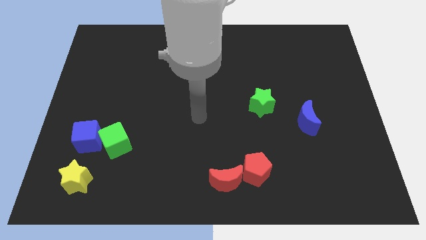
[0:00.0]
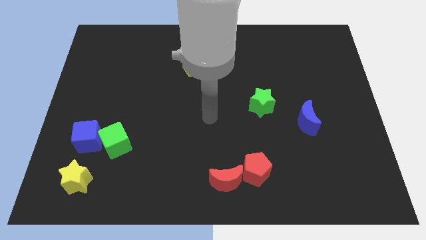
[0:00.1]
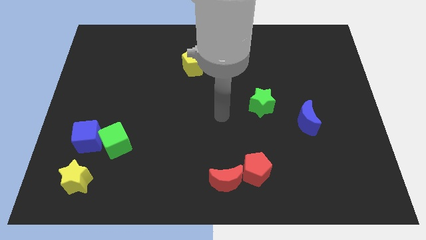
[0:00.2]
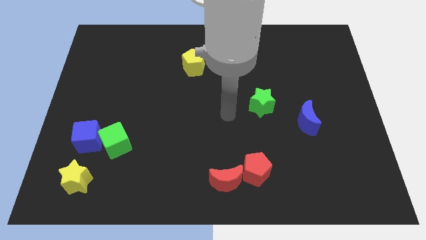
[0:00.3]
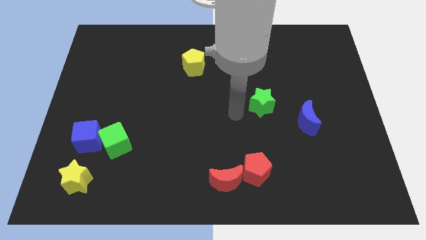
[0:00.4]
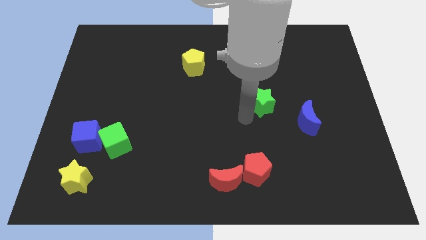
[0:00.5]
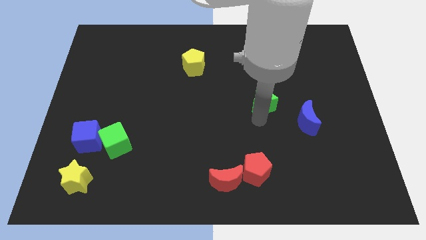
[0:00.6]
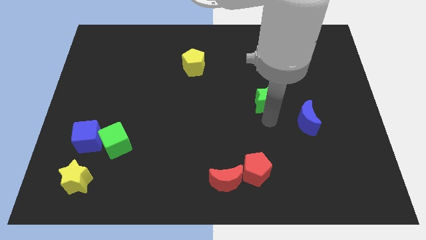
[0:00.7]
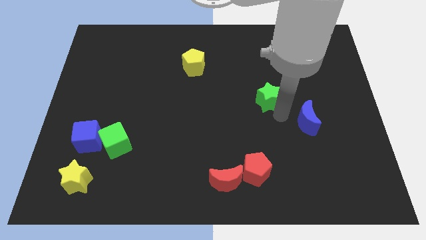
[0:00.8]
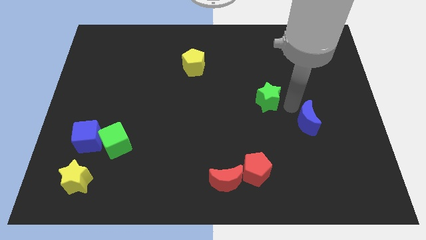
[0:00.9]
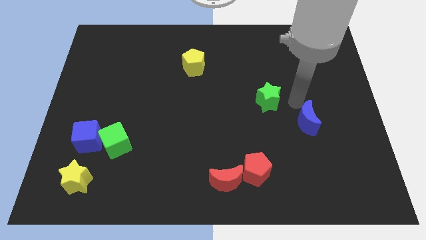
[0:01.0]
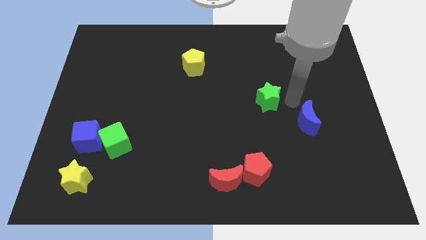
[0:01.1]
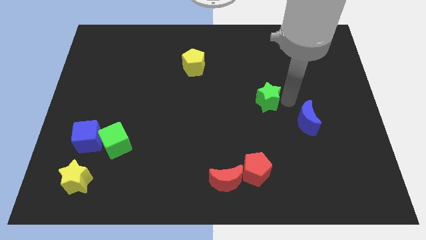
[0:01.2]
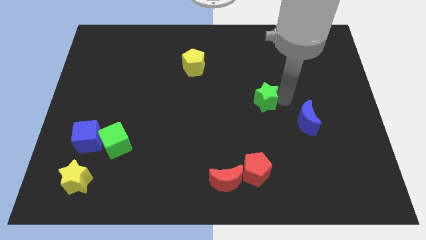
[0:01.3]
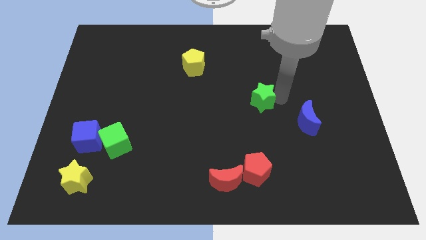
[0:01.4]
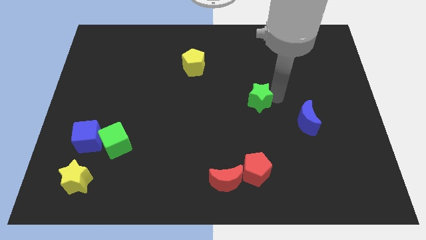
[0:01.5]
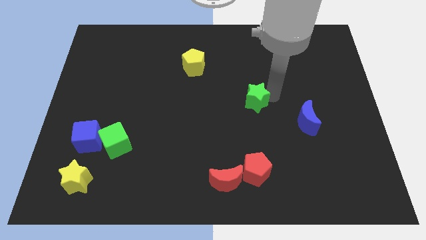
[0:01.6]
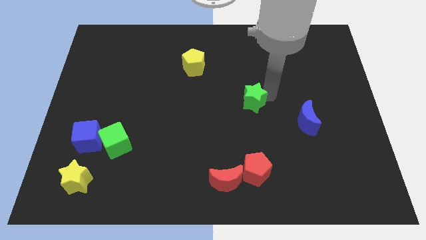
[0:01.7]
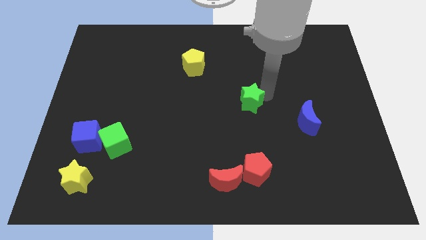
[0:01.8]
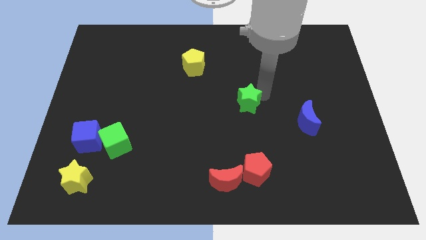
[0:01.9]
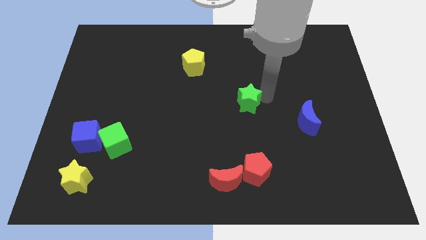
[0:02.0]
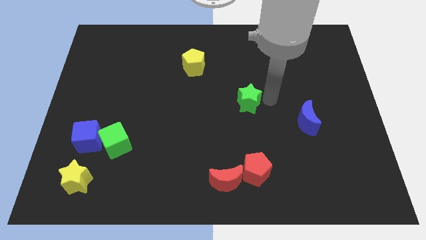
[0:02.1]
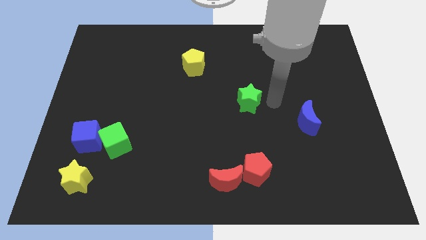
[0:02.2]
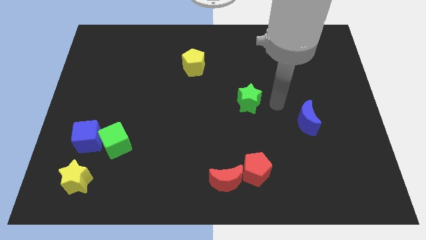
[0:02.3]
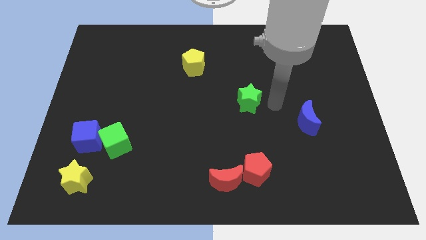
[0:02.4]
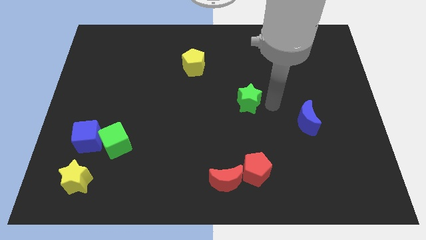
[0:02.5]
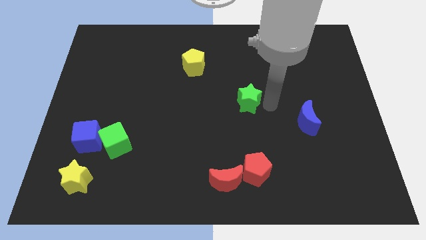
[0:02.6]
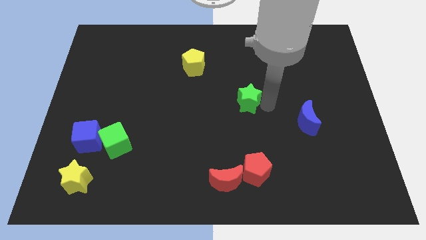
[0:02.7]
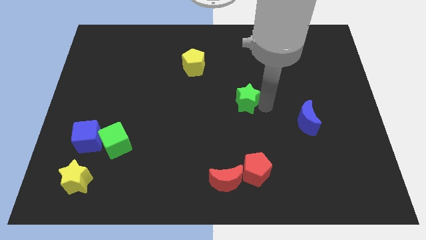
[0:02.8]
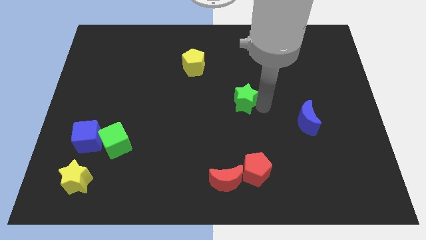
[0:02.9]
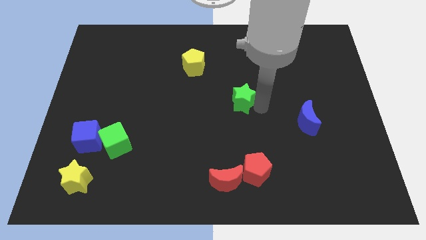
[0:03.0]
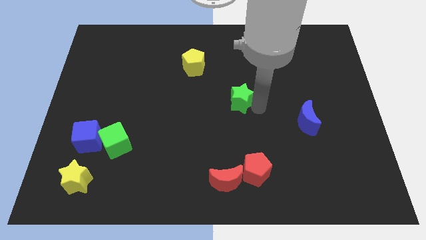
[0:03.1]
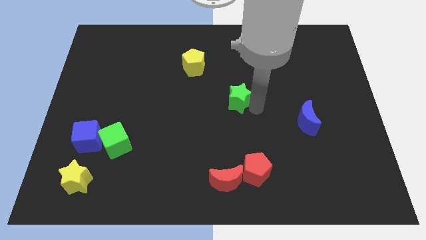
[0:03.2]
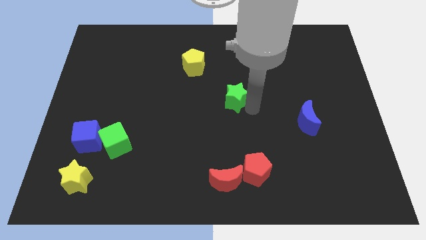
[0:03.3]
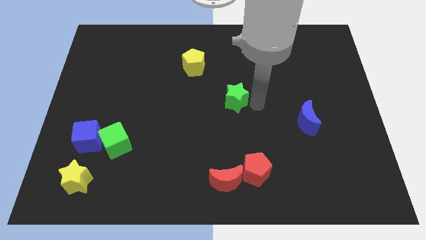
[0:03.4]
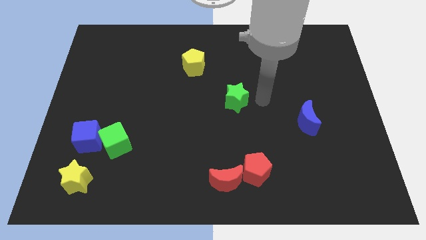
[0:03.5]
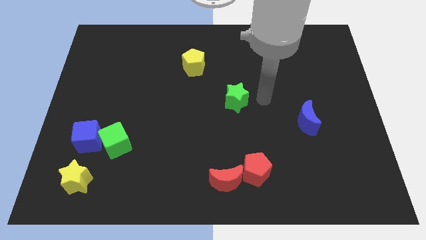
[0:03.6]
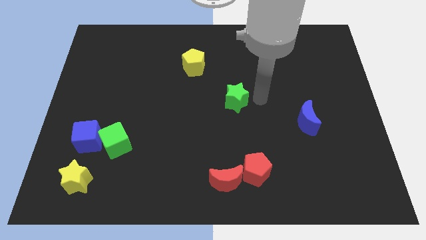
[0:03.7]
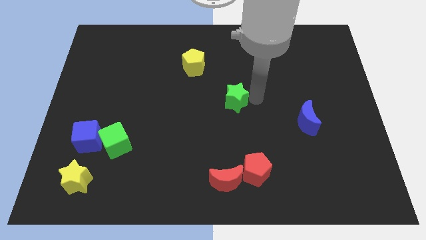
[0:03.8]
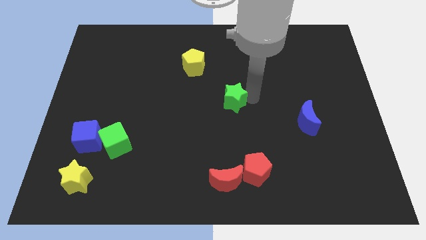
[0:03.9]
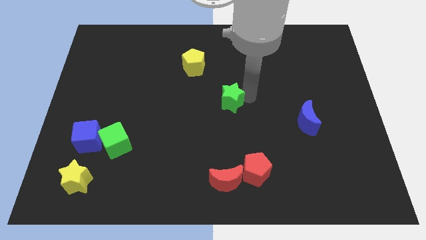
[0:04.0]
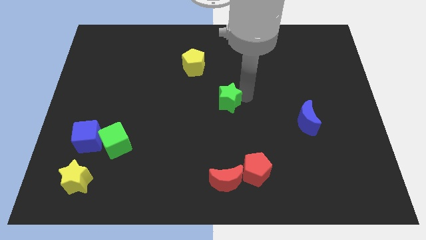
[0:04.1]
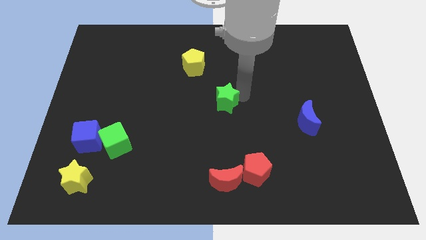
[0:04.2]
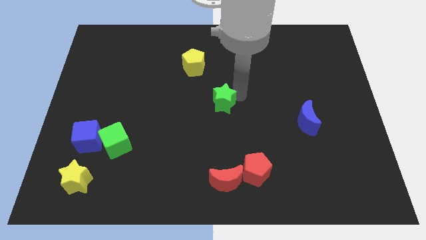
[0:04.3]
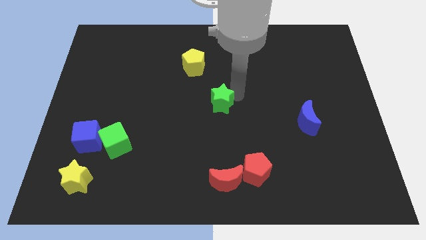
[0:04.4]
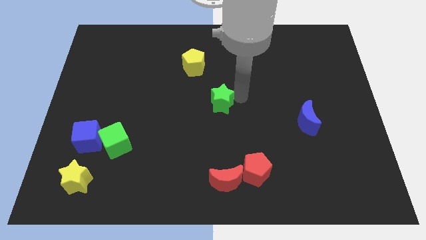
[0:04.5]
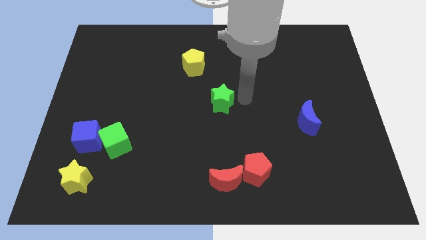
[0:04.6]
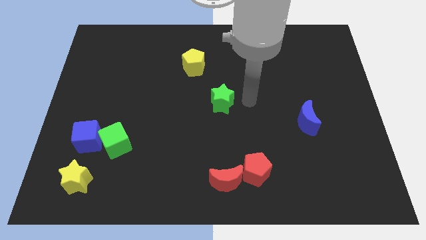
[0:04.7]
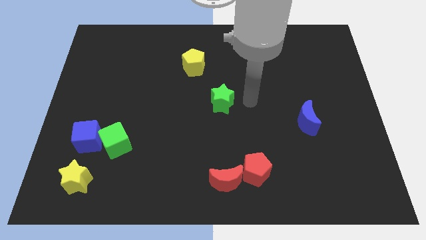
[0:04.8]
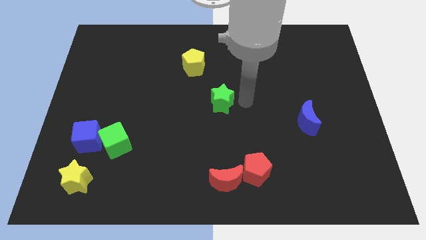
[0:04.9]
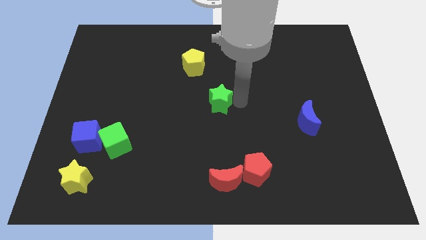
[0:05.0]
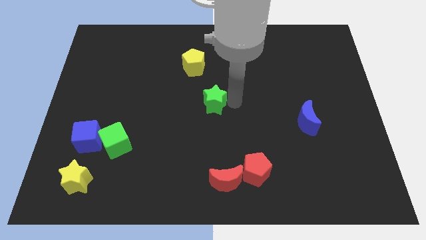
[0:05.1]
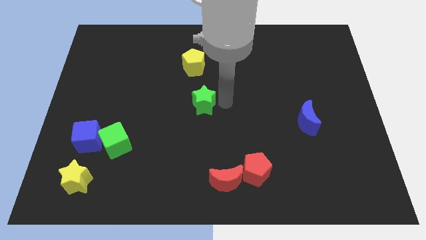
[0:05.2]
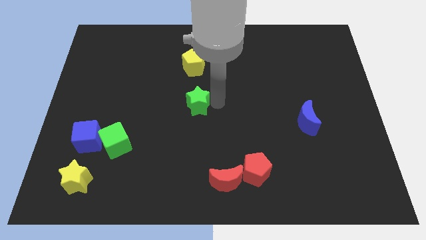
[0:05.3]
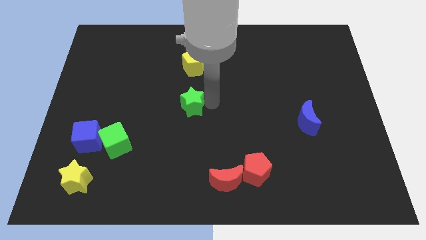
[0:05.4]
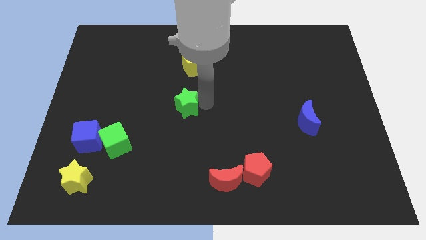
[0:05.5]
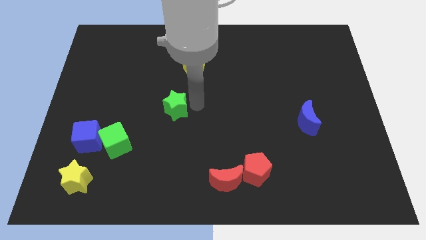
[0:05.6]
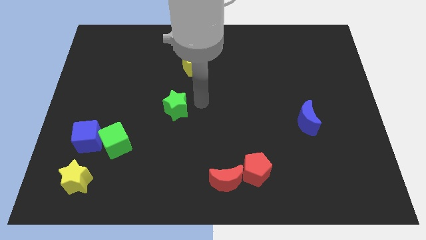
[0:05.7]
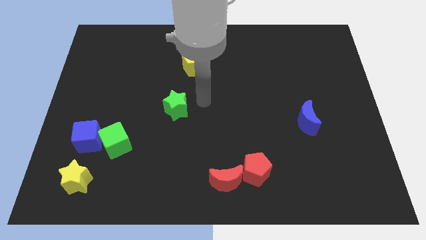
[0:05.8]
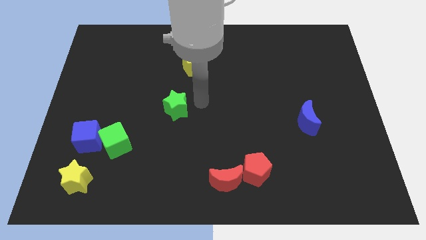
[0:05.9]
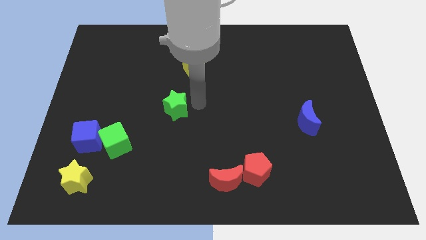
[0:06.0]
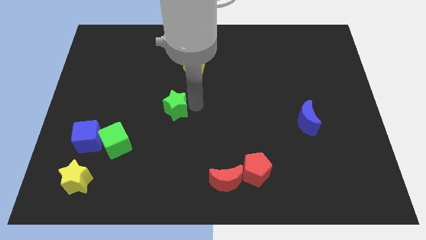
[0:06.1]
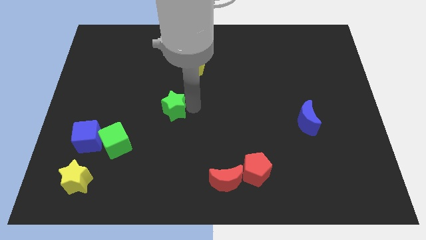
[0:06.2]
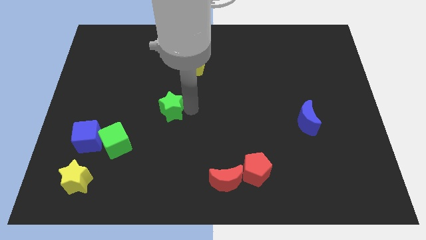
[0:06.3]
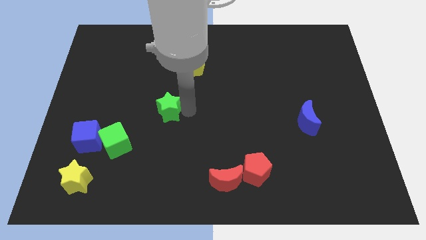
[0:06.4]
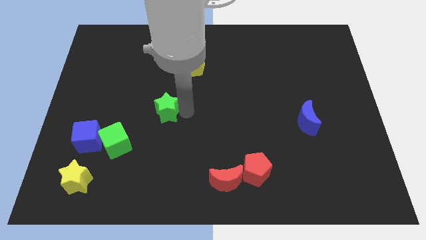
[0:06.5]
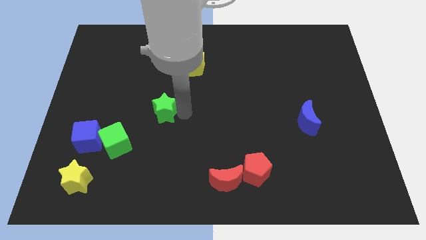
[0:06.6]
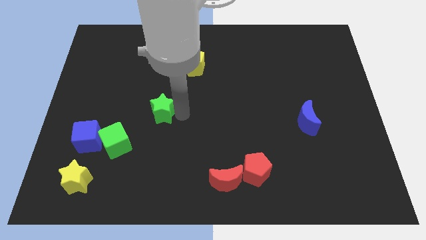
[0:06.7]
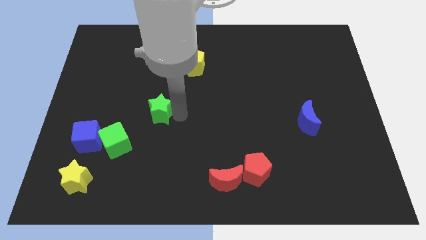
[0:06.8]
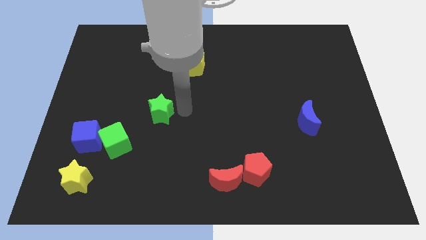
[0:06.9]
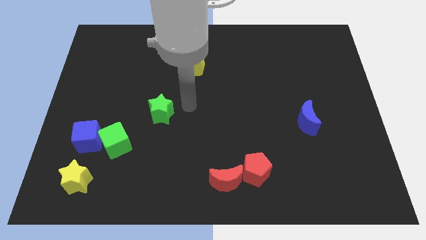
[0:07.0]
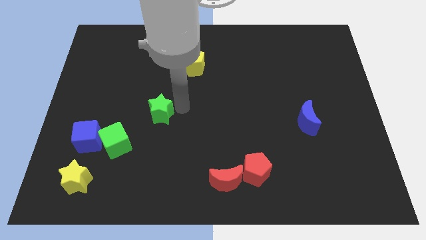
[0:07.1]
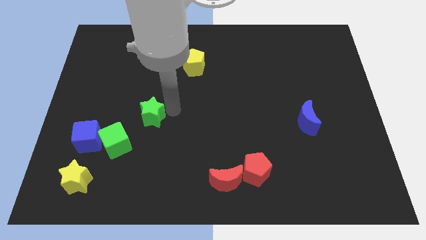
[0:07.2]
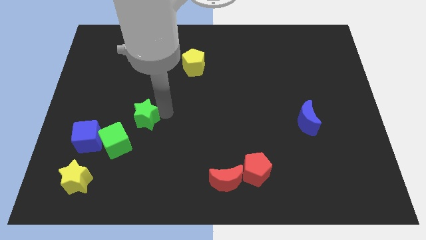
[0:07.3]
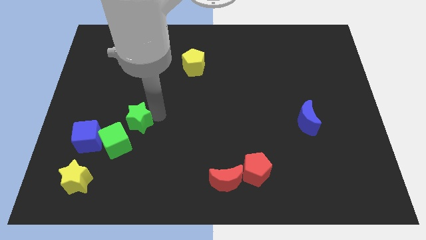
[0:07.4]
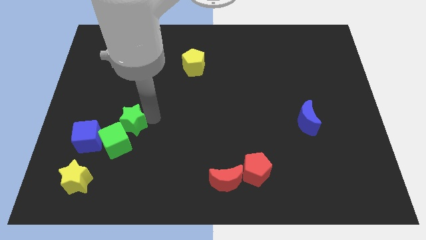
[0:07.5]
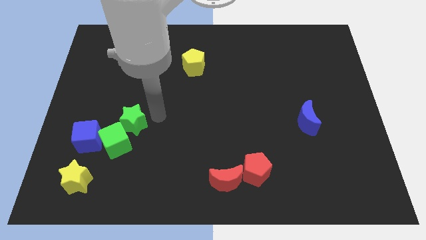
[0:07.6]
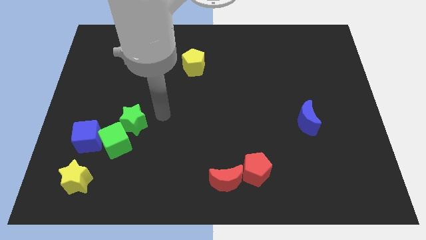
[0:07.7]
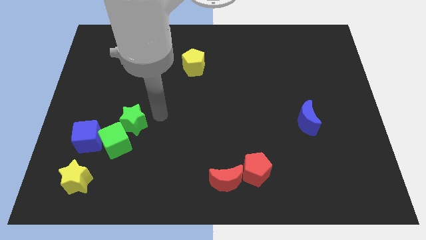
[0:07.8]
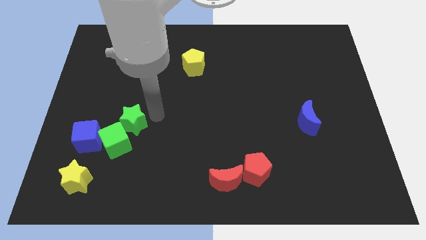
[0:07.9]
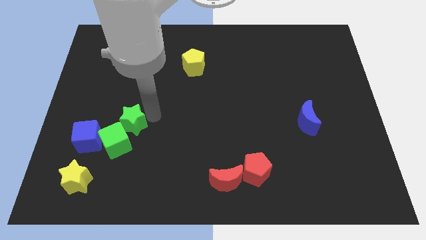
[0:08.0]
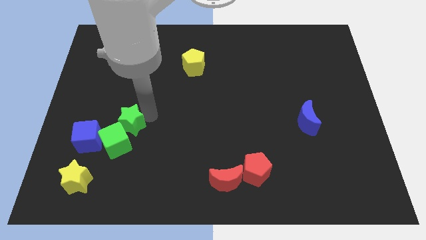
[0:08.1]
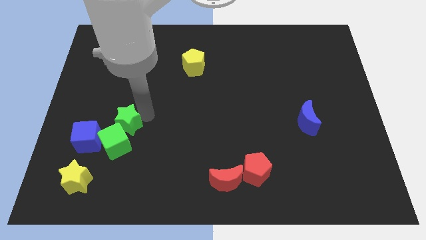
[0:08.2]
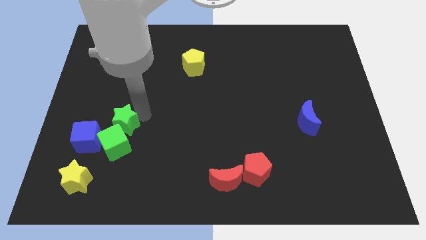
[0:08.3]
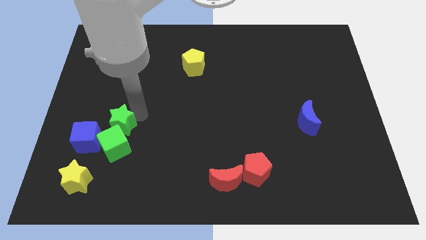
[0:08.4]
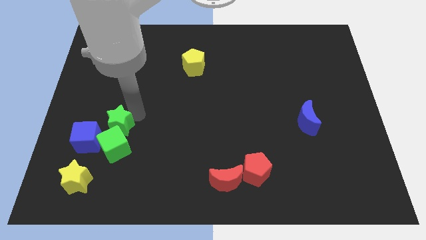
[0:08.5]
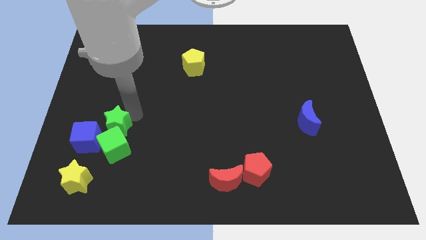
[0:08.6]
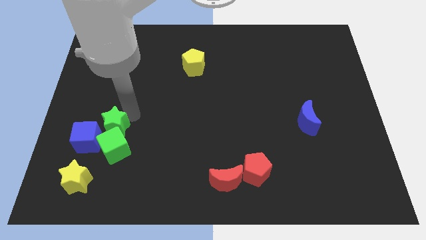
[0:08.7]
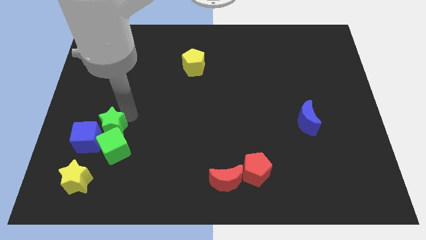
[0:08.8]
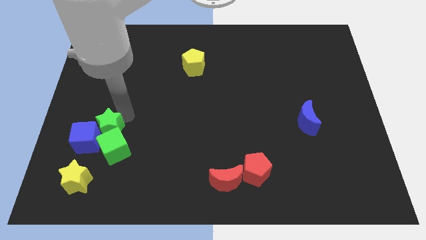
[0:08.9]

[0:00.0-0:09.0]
slide the green star towards the blue cube
